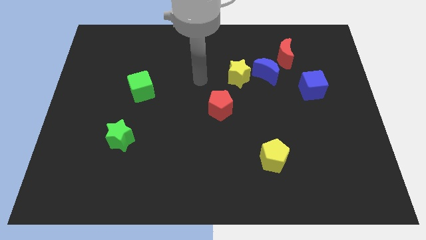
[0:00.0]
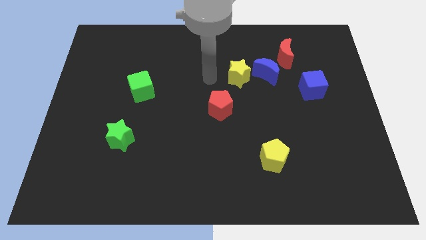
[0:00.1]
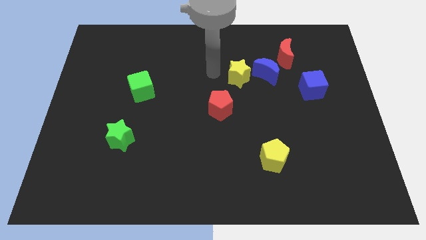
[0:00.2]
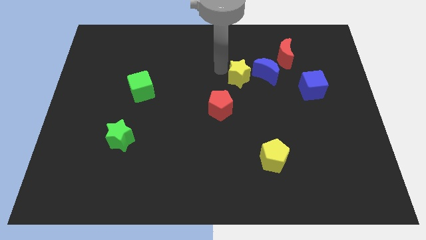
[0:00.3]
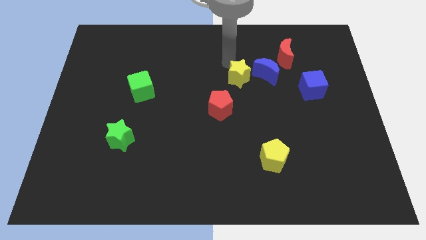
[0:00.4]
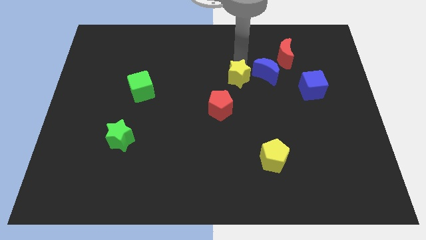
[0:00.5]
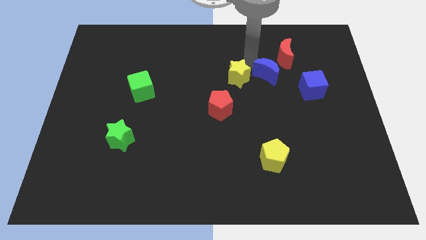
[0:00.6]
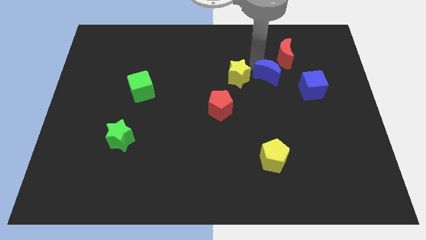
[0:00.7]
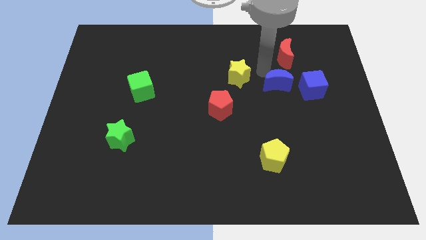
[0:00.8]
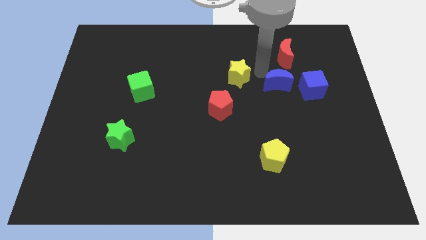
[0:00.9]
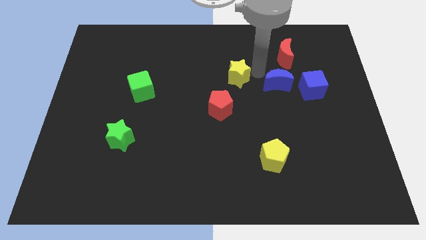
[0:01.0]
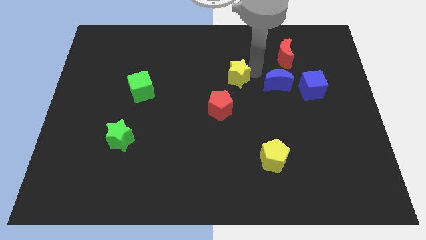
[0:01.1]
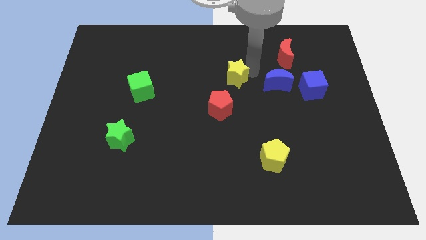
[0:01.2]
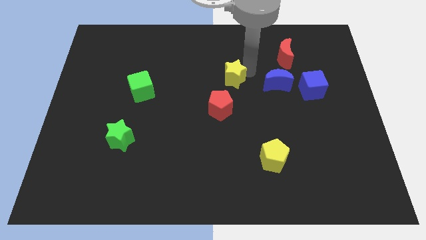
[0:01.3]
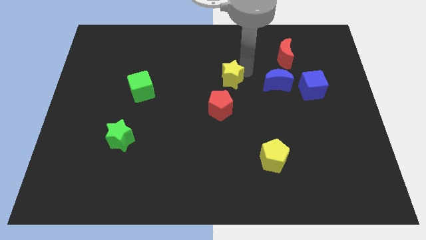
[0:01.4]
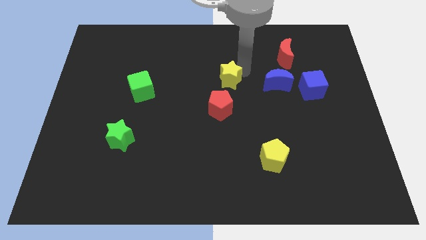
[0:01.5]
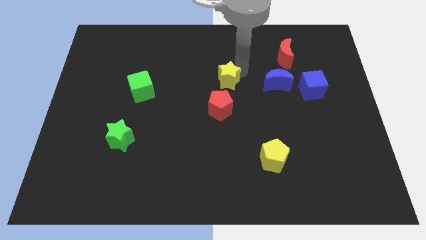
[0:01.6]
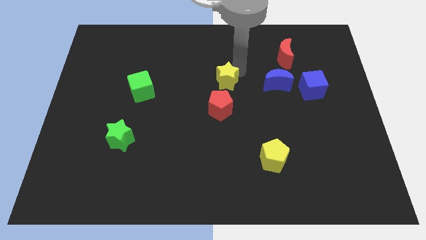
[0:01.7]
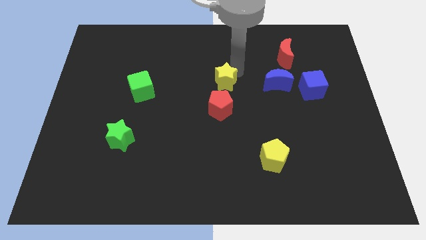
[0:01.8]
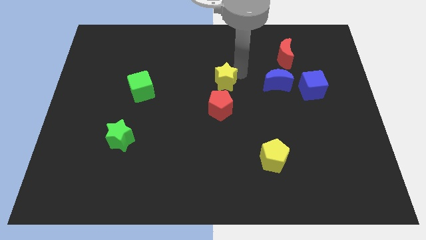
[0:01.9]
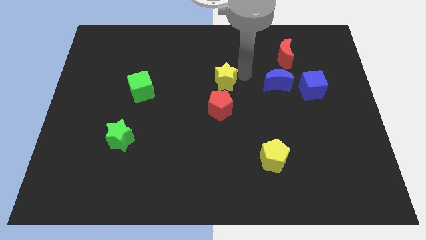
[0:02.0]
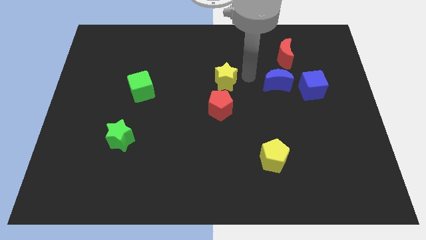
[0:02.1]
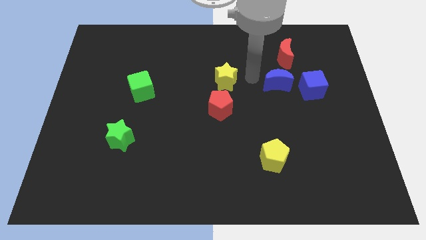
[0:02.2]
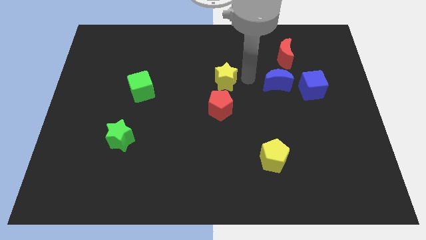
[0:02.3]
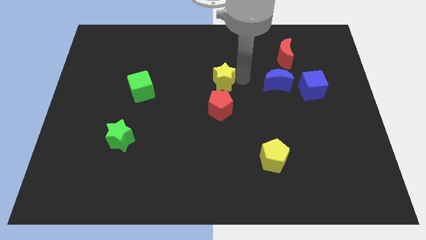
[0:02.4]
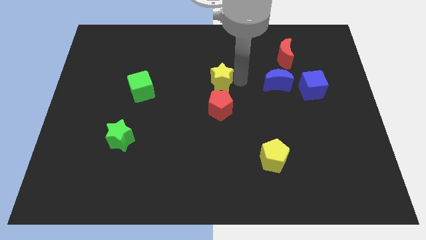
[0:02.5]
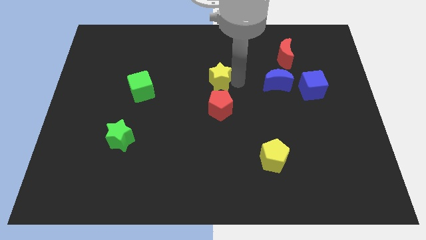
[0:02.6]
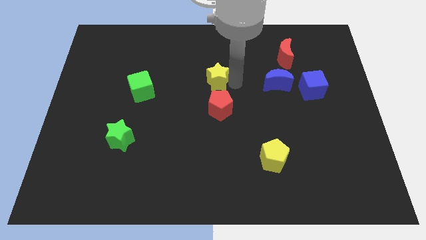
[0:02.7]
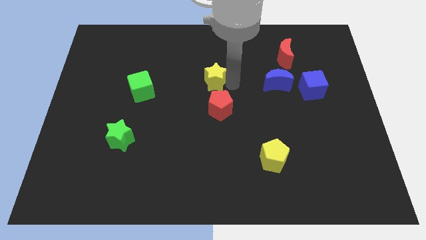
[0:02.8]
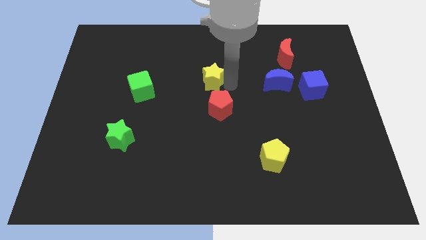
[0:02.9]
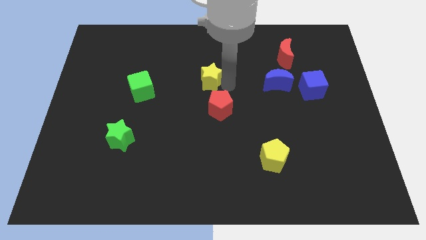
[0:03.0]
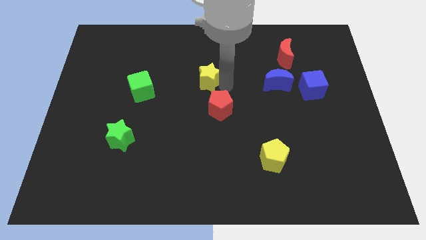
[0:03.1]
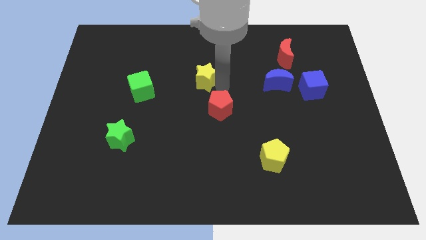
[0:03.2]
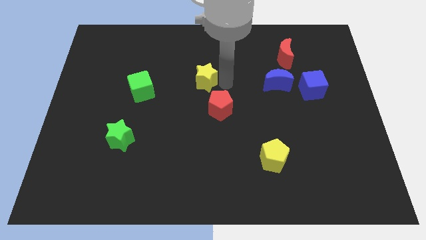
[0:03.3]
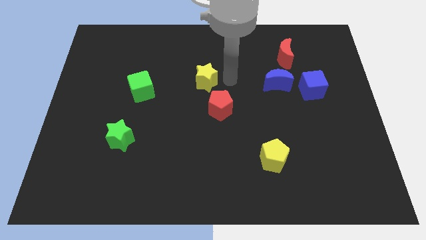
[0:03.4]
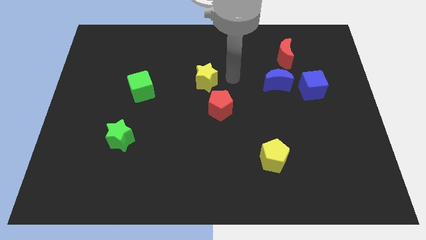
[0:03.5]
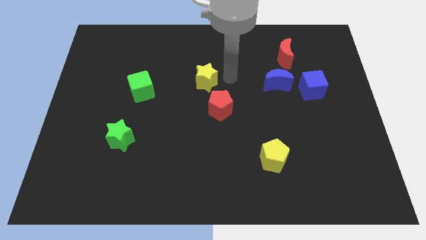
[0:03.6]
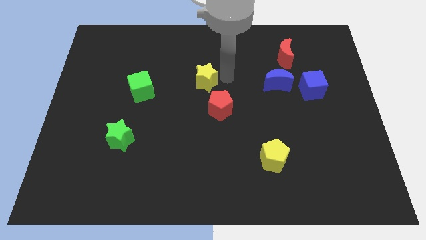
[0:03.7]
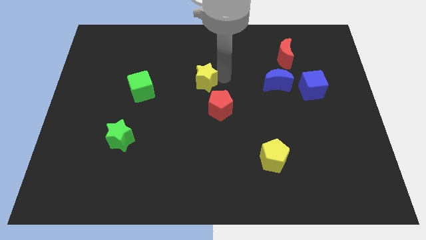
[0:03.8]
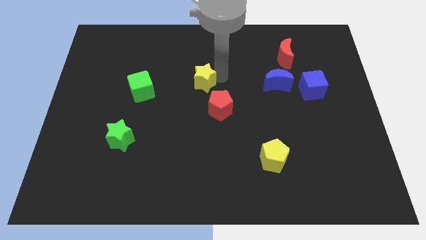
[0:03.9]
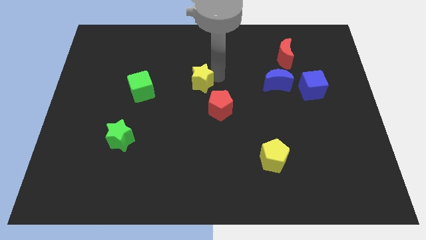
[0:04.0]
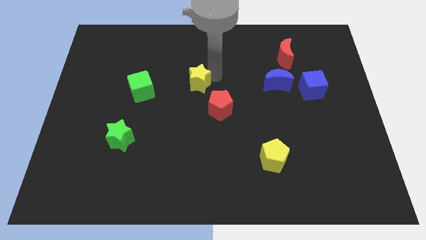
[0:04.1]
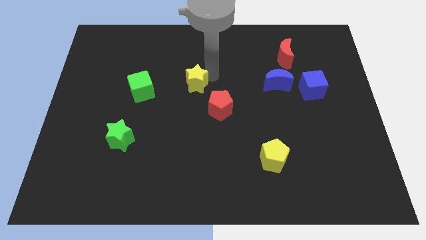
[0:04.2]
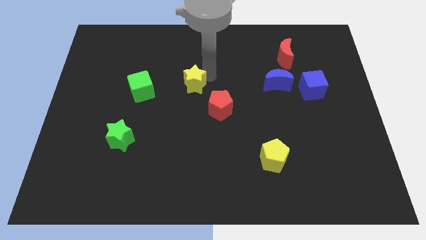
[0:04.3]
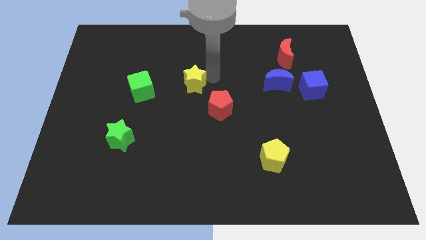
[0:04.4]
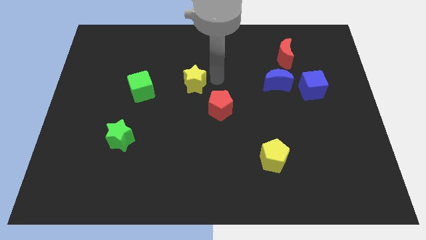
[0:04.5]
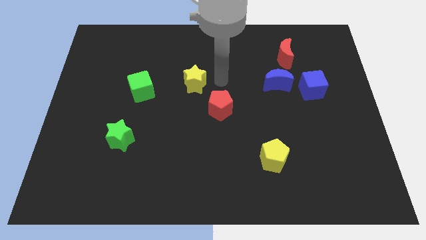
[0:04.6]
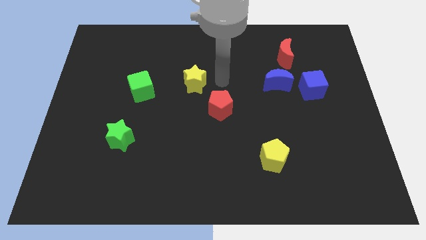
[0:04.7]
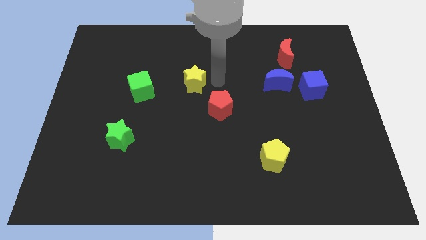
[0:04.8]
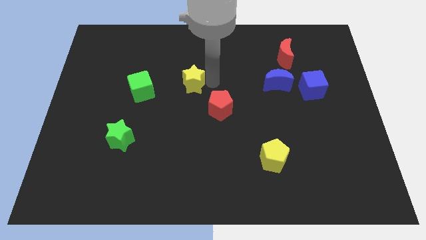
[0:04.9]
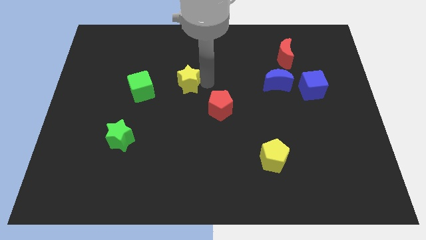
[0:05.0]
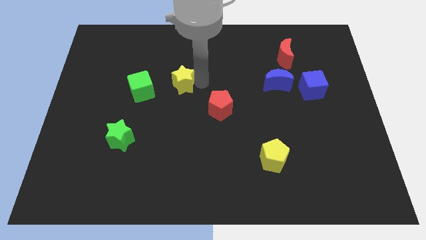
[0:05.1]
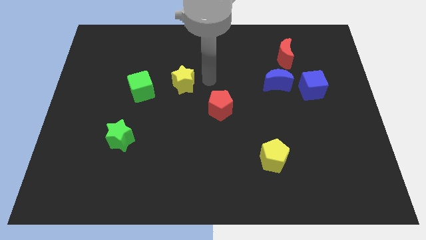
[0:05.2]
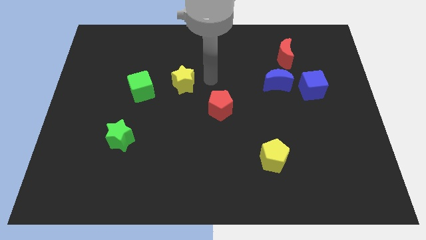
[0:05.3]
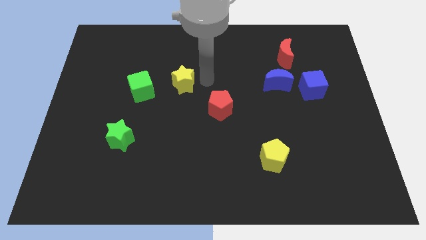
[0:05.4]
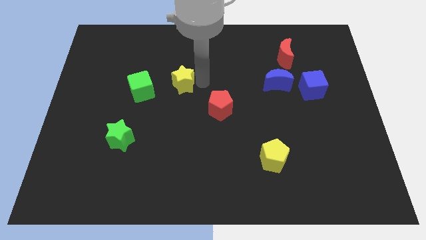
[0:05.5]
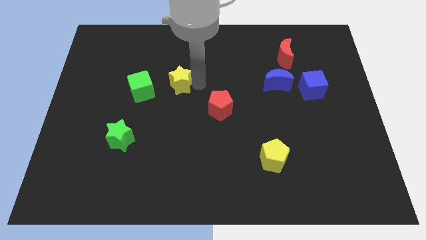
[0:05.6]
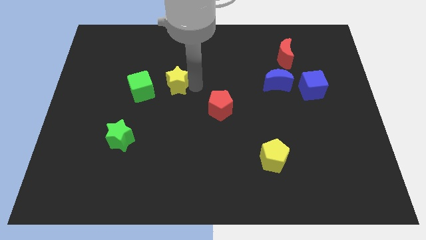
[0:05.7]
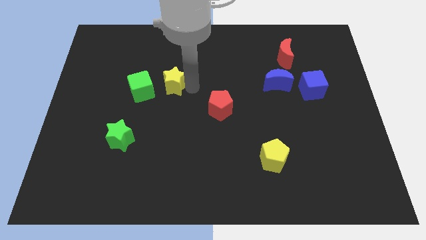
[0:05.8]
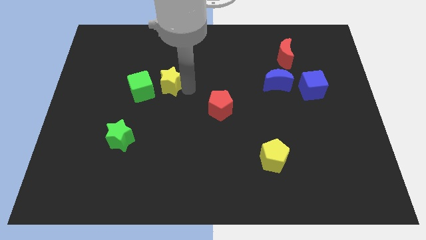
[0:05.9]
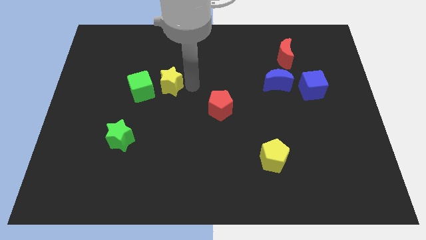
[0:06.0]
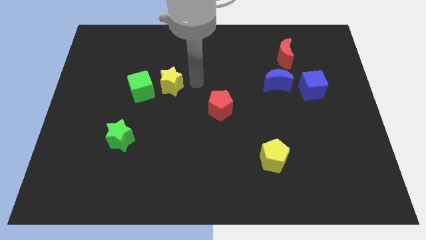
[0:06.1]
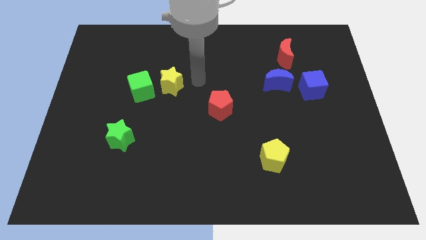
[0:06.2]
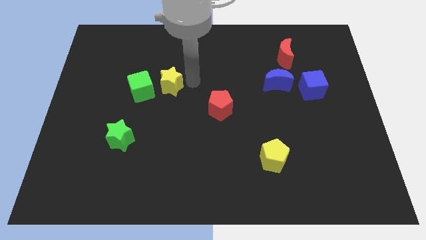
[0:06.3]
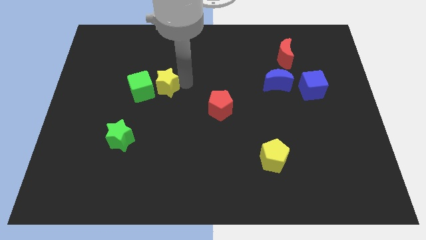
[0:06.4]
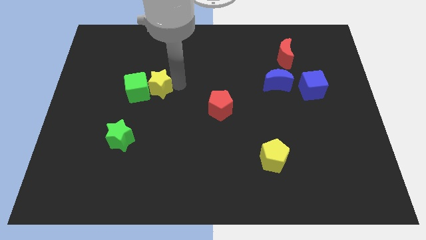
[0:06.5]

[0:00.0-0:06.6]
put the yellow star towards the green cube

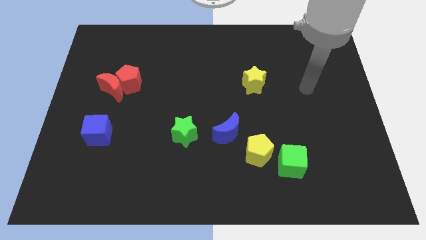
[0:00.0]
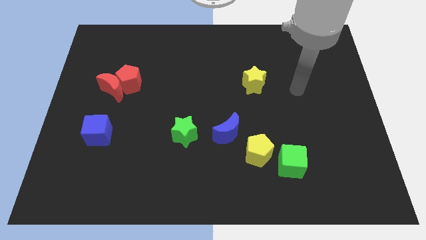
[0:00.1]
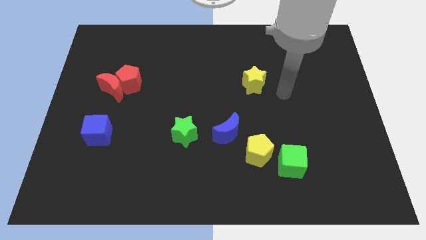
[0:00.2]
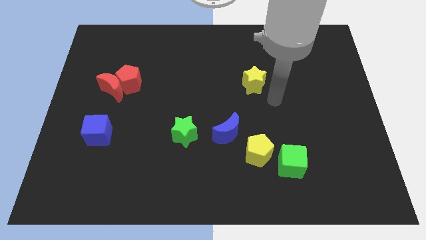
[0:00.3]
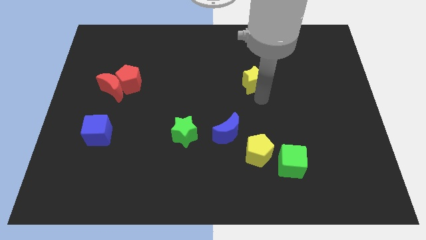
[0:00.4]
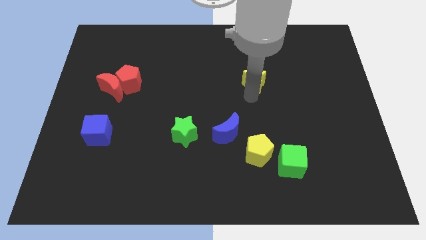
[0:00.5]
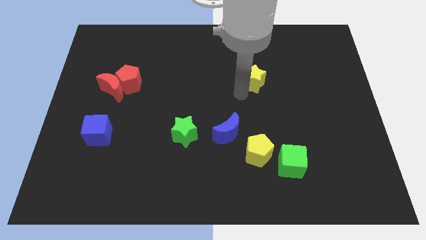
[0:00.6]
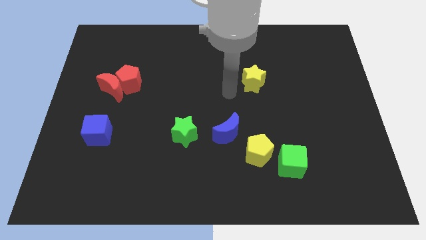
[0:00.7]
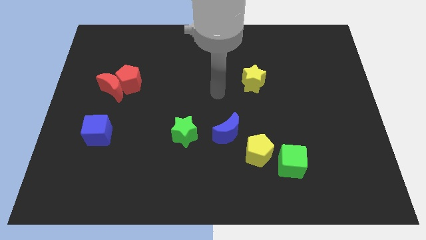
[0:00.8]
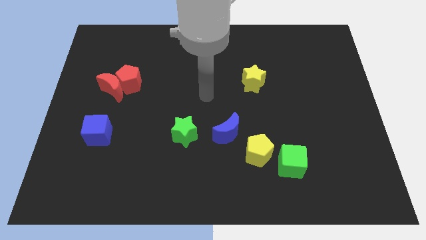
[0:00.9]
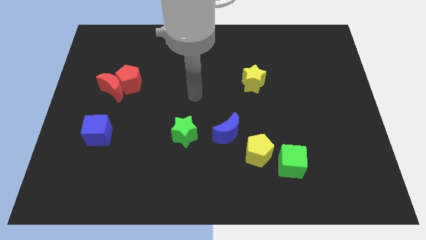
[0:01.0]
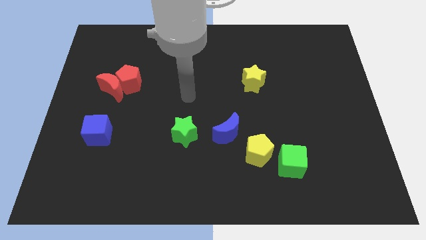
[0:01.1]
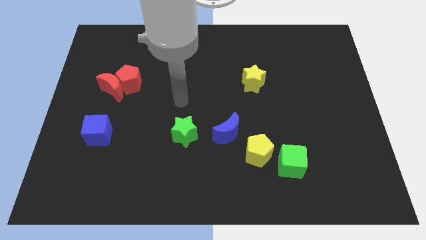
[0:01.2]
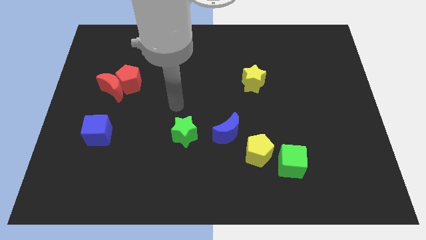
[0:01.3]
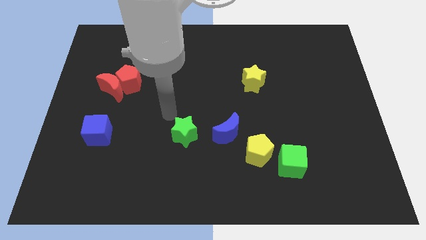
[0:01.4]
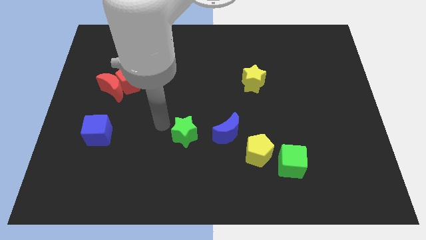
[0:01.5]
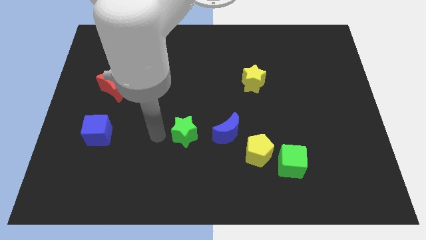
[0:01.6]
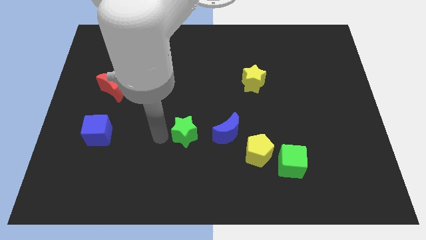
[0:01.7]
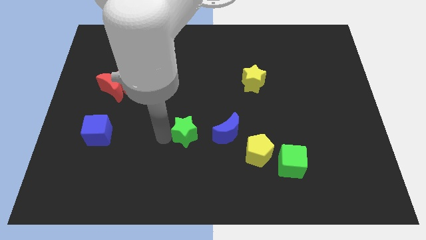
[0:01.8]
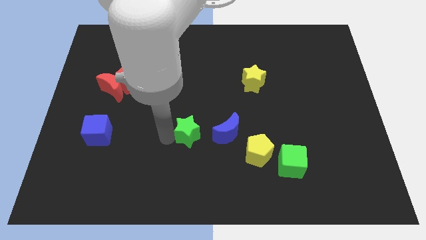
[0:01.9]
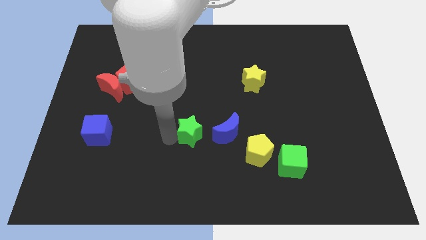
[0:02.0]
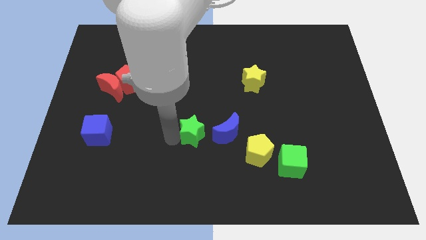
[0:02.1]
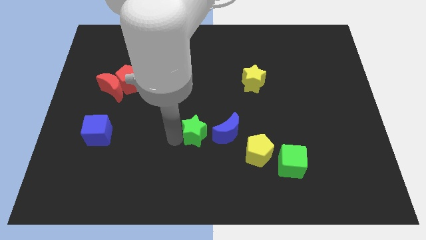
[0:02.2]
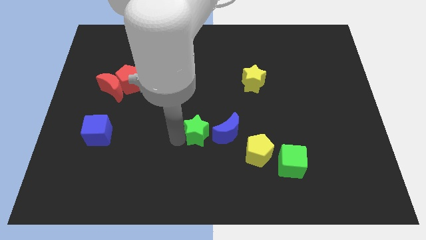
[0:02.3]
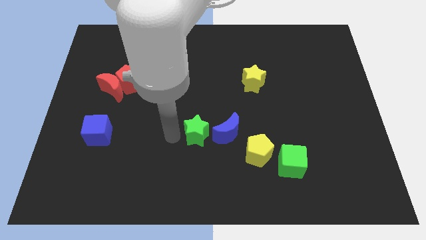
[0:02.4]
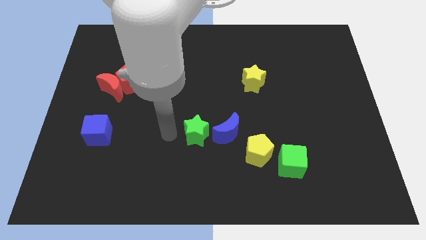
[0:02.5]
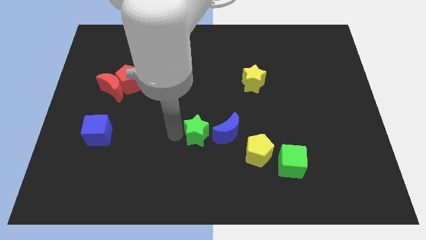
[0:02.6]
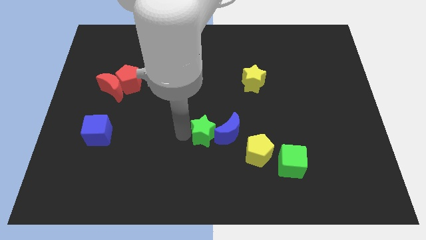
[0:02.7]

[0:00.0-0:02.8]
slide the green star next to the blue moon
